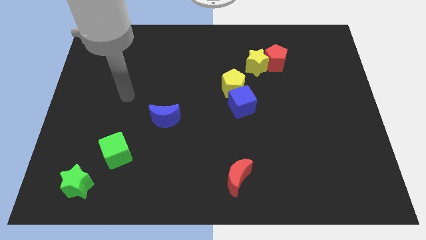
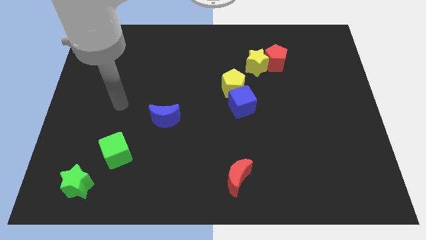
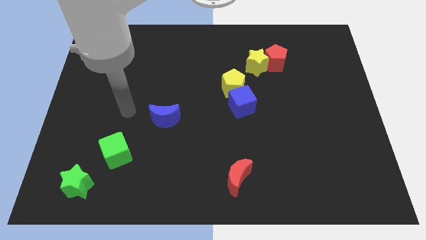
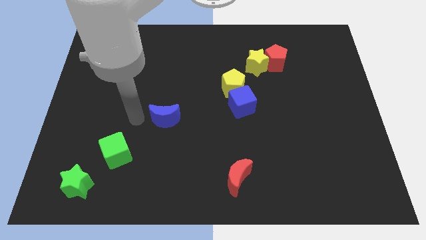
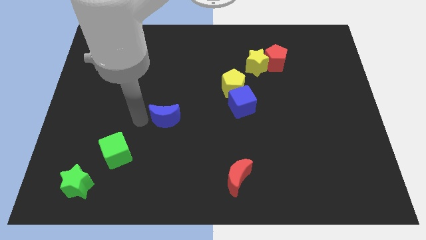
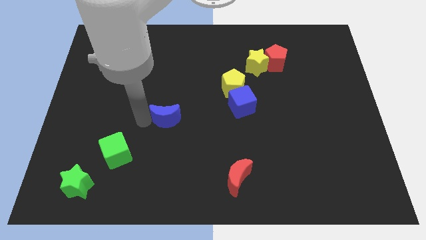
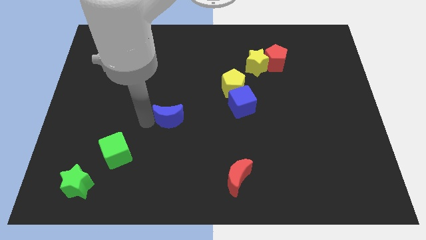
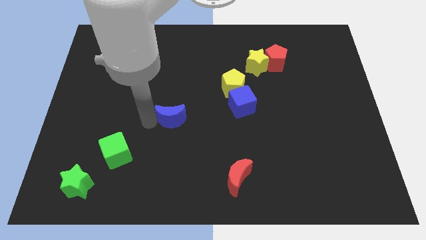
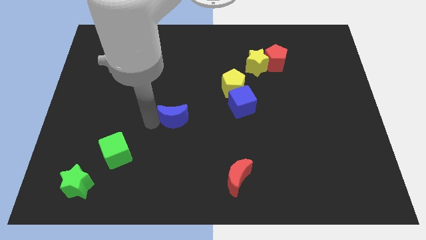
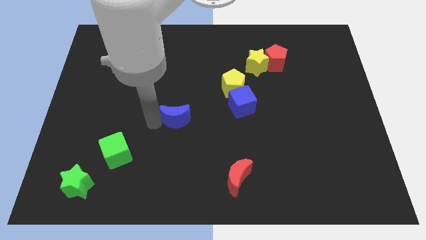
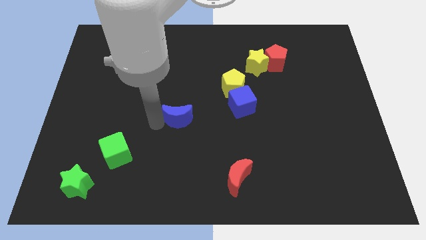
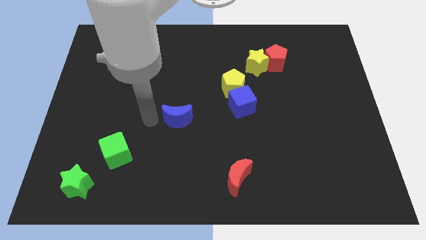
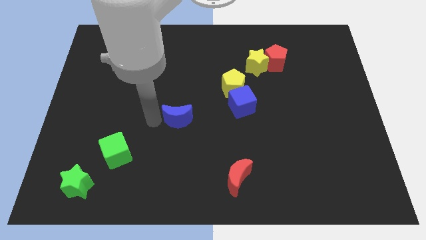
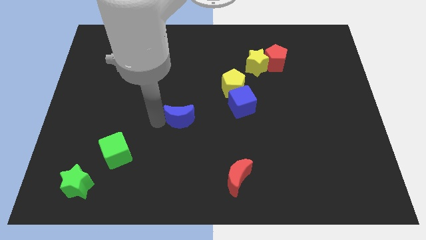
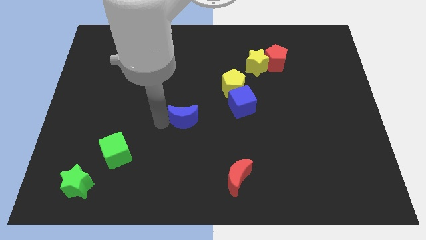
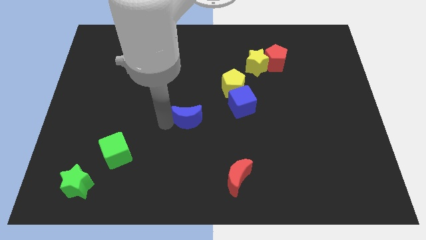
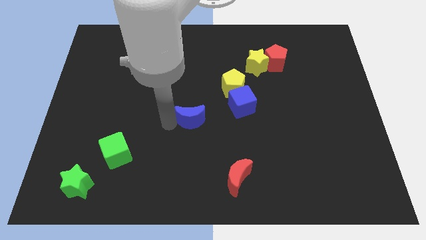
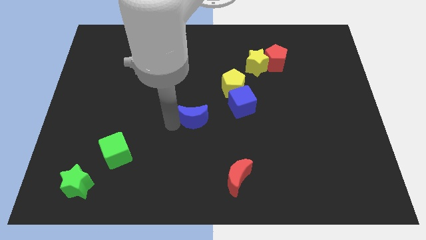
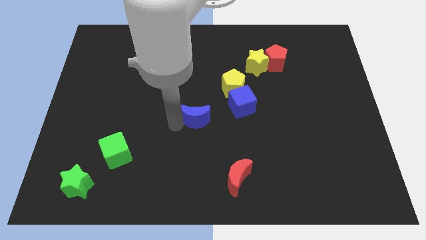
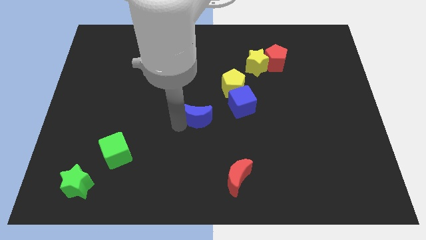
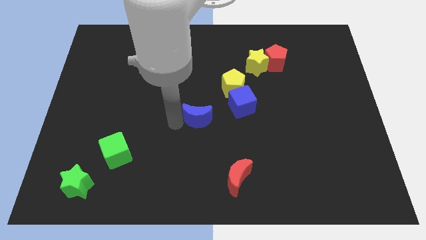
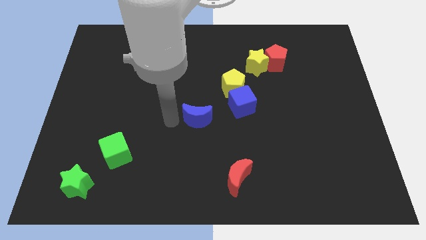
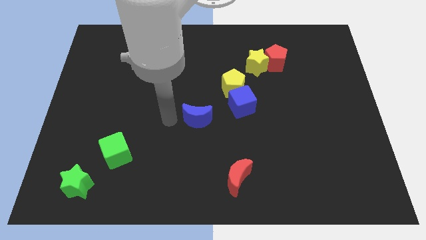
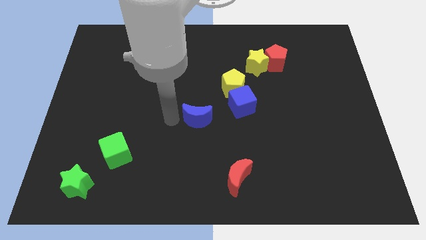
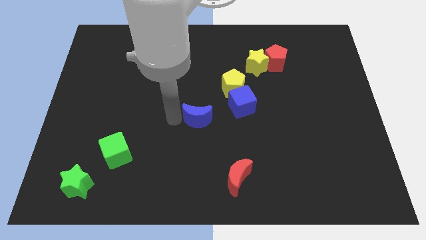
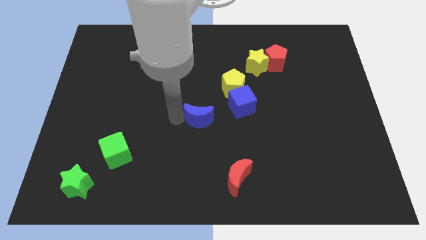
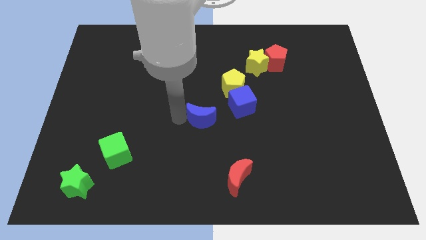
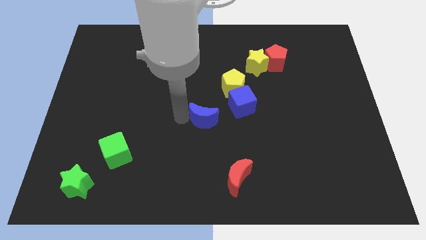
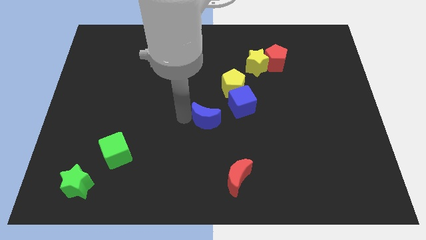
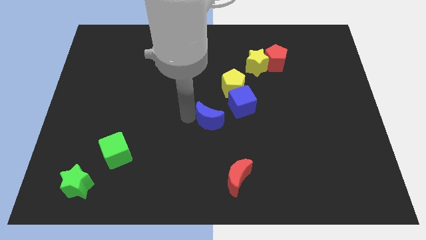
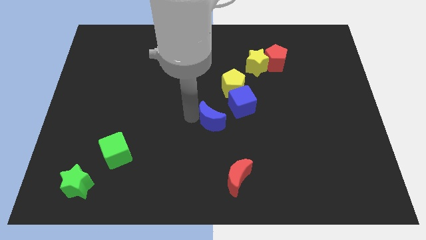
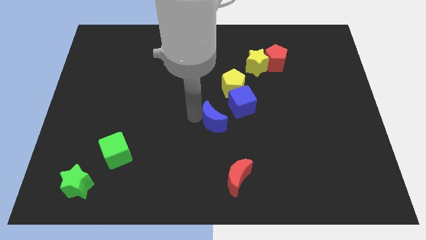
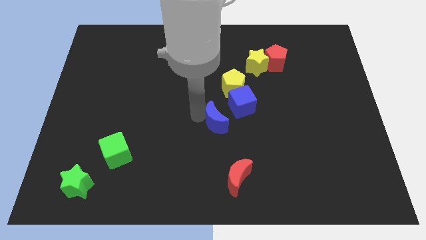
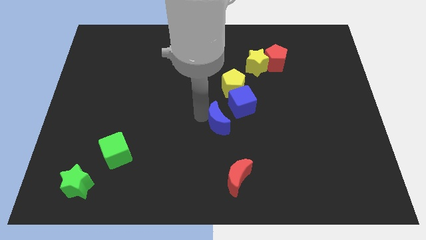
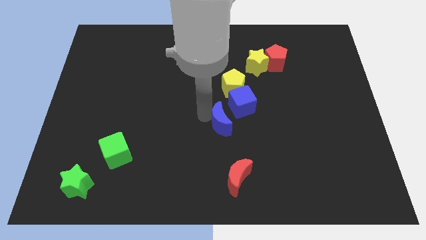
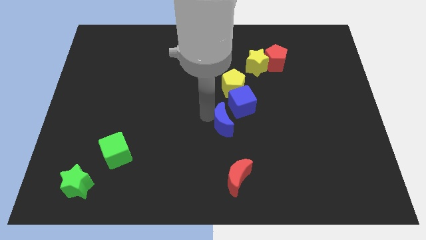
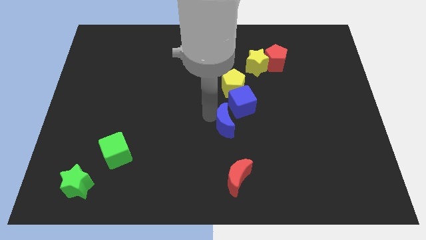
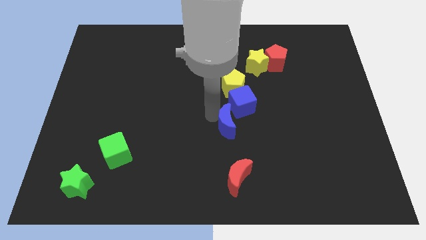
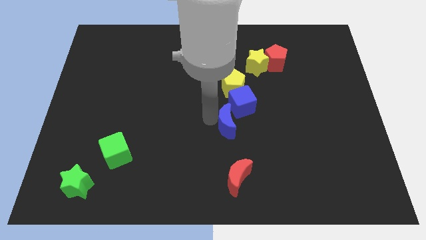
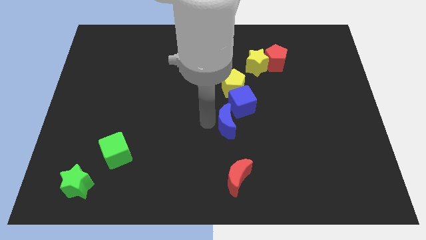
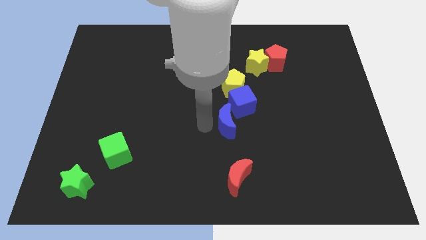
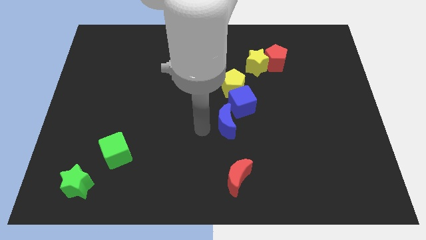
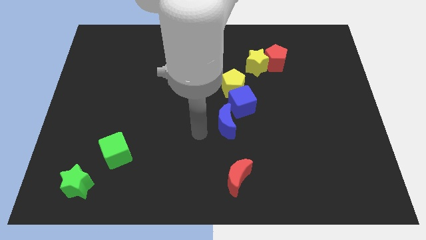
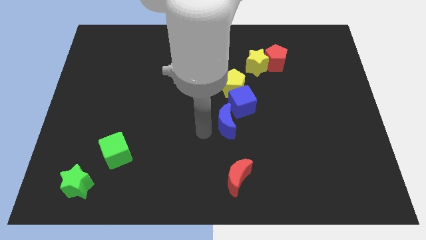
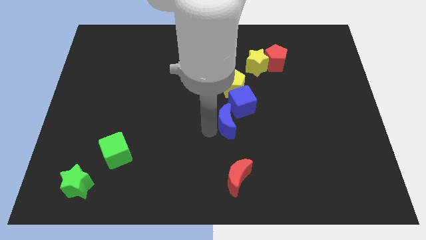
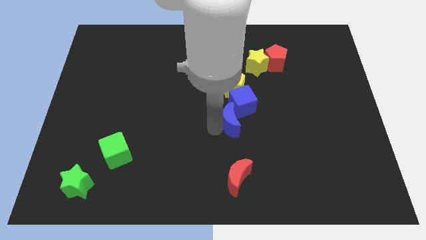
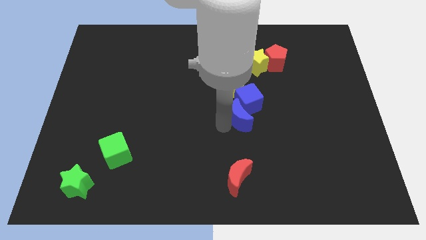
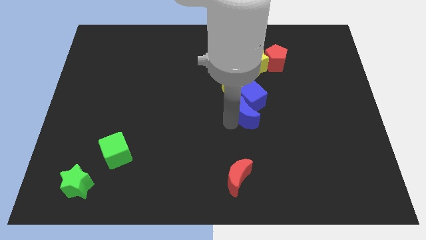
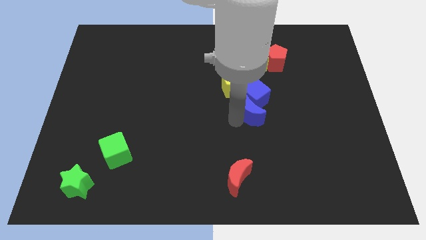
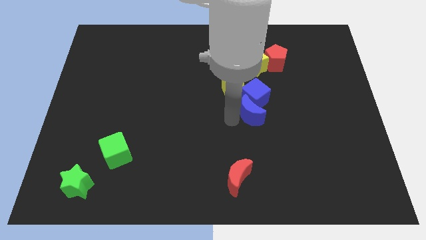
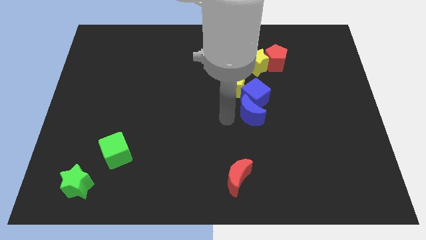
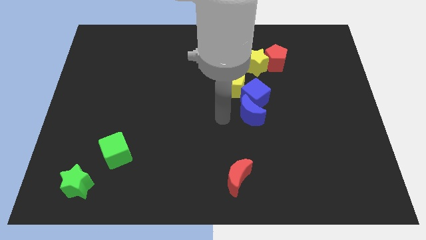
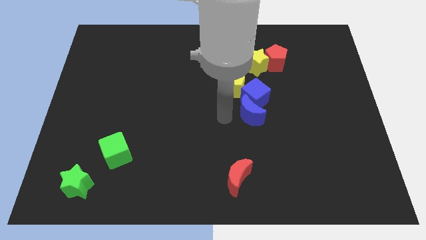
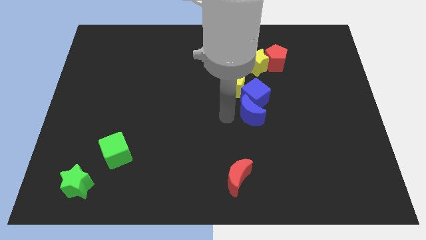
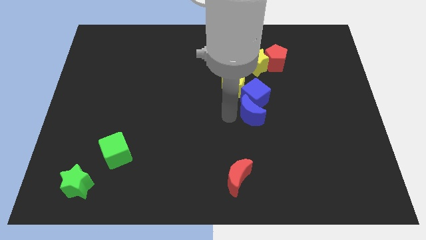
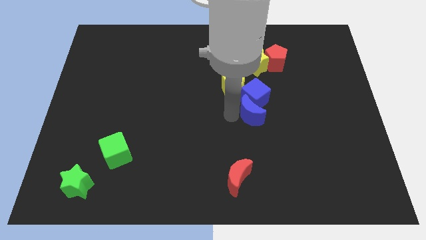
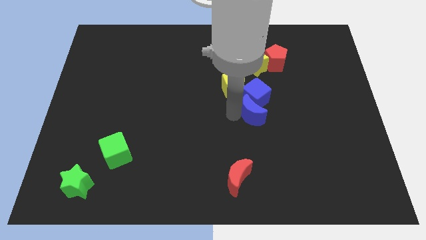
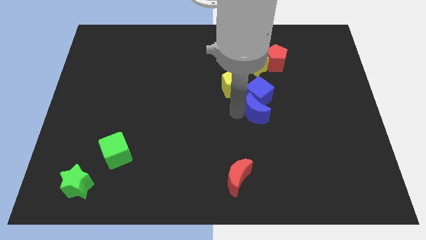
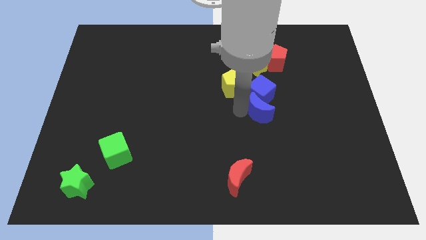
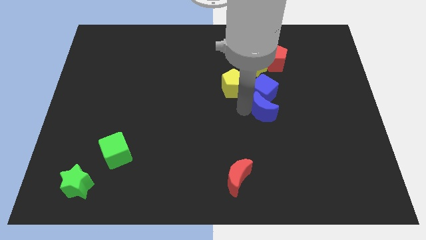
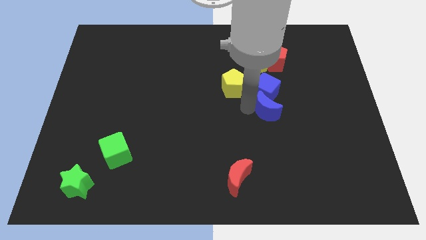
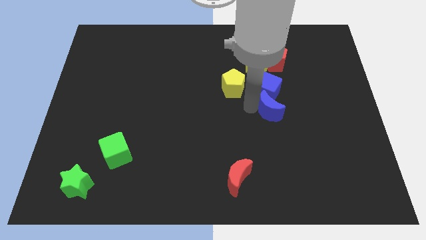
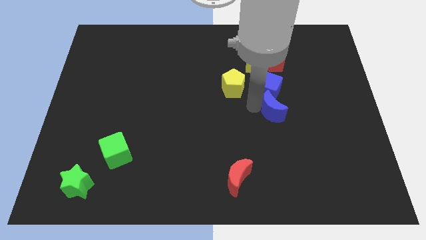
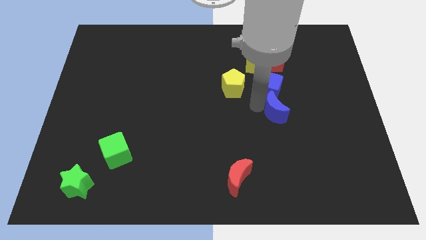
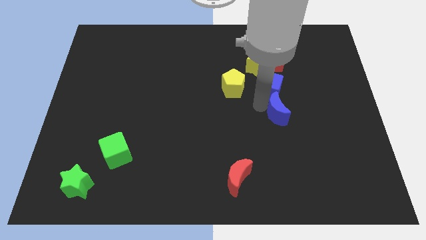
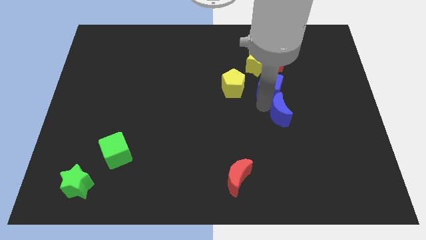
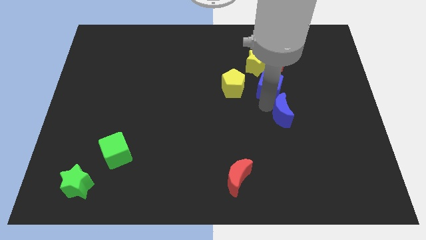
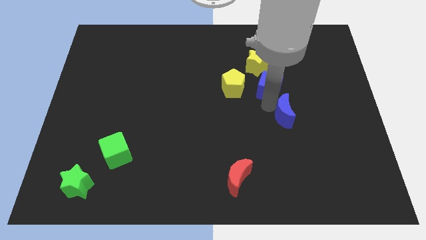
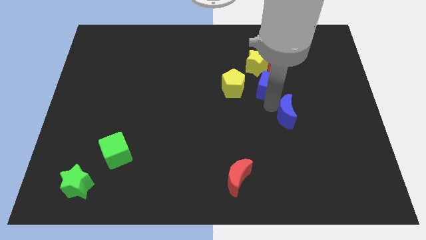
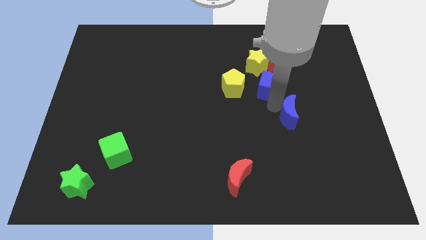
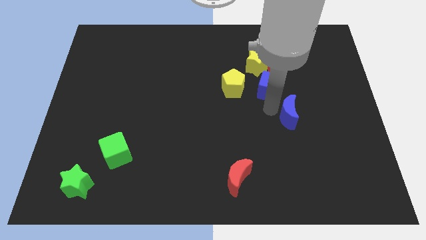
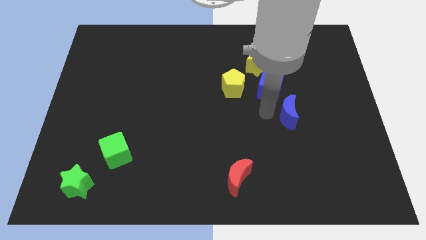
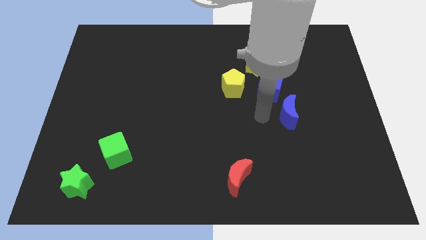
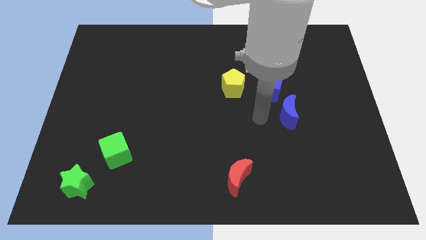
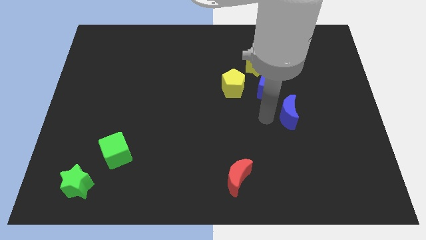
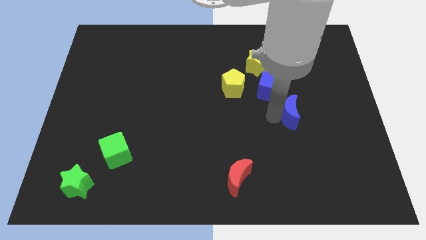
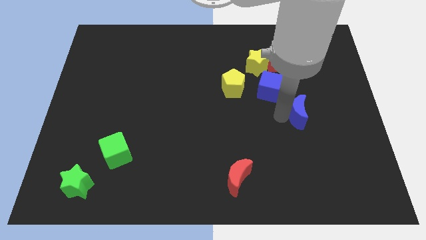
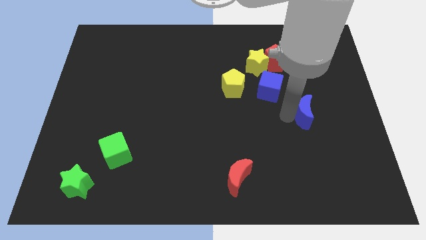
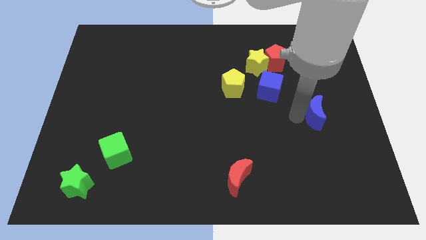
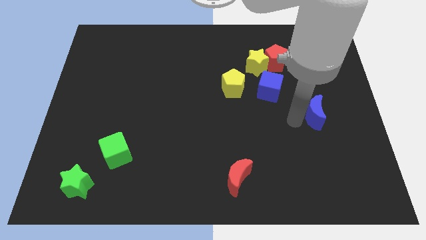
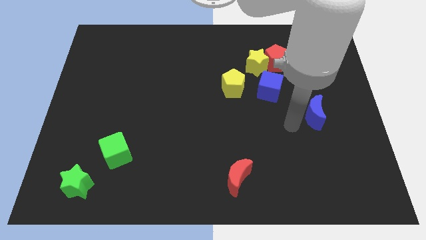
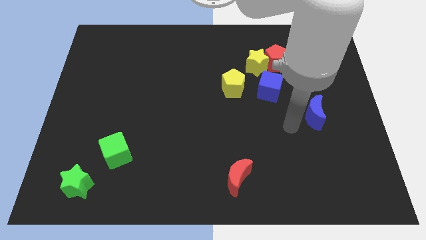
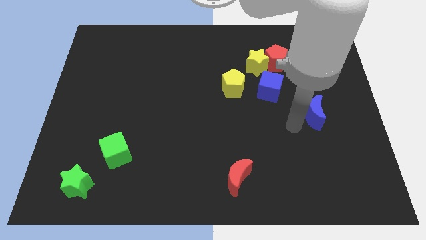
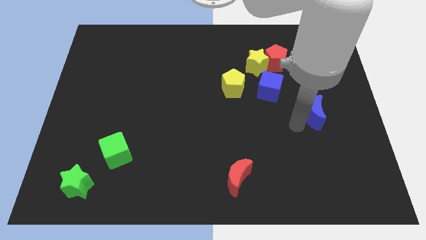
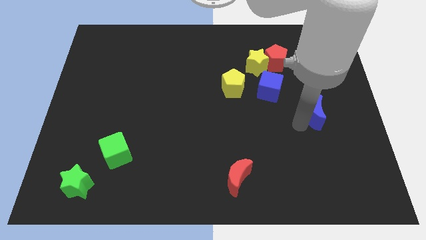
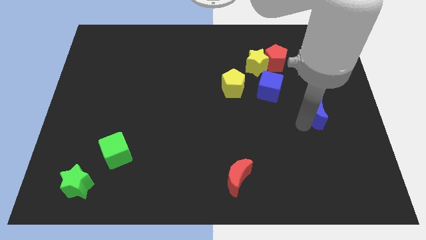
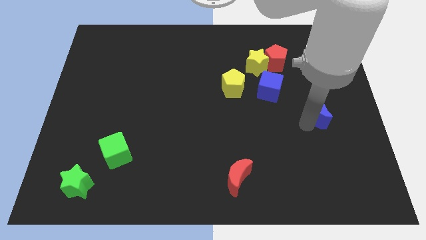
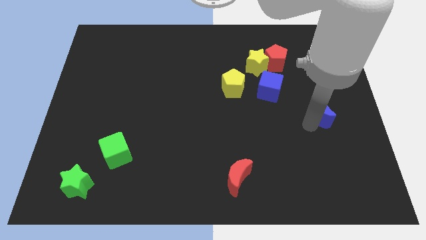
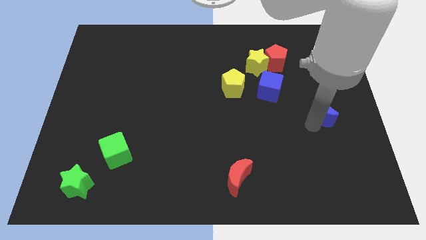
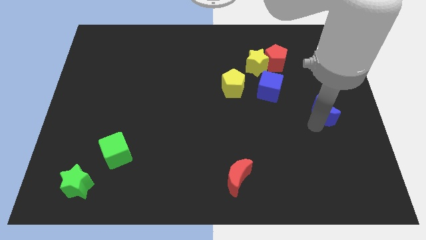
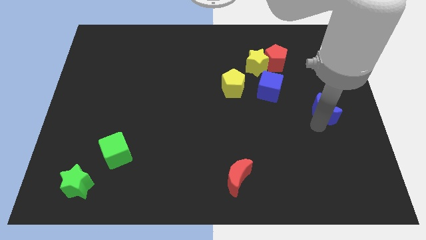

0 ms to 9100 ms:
push the blue moon to the right side
